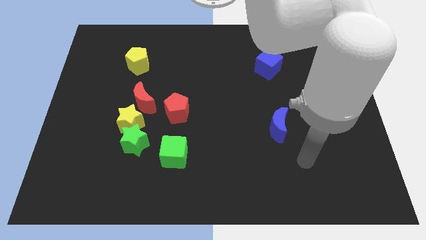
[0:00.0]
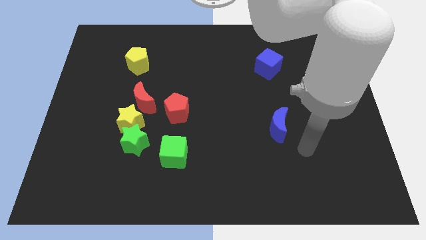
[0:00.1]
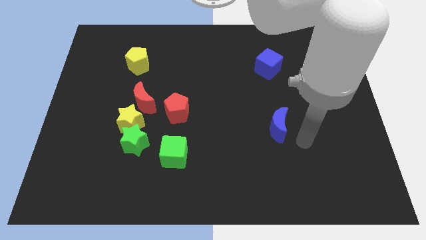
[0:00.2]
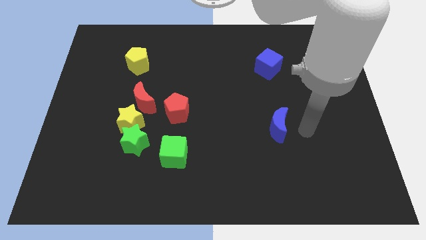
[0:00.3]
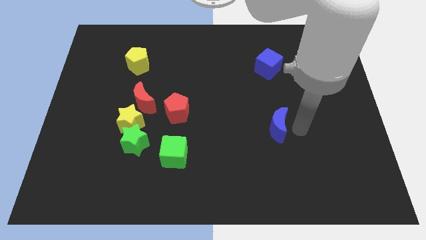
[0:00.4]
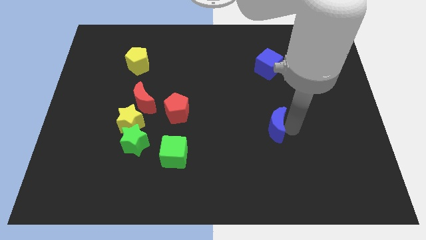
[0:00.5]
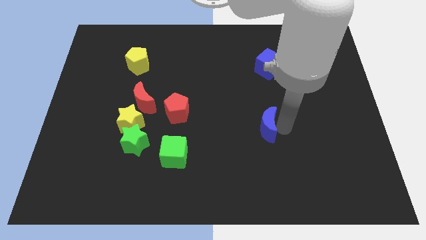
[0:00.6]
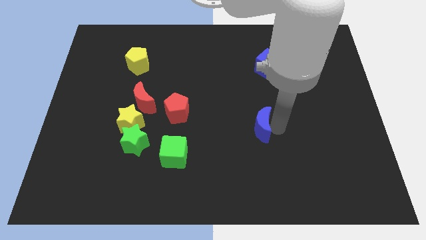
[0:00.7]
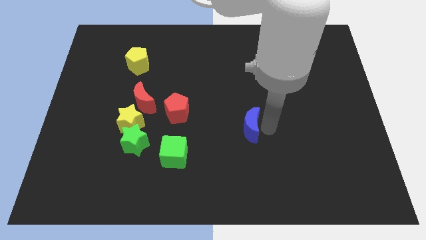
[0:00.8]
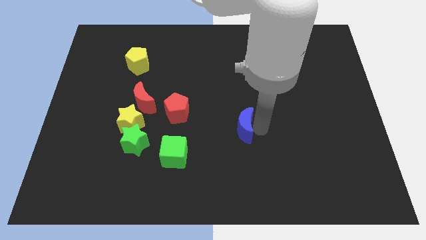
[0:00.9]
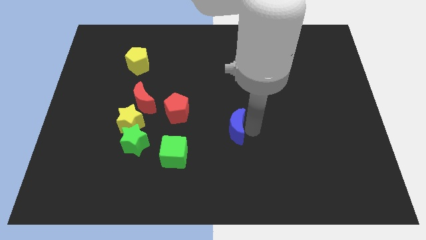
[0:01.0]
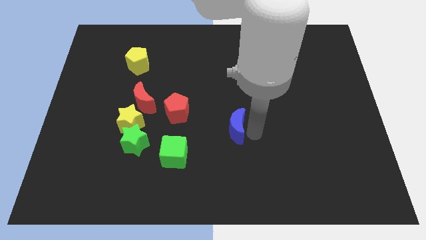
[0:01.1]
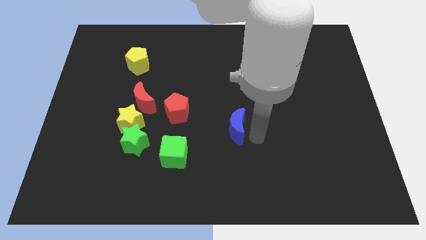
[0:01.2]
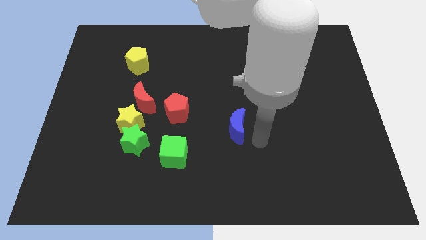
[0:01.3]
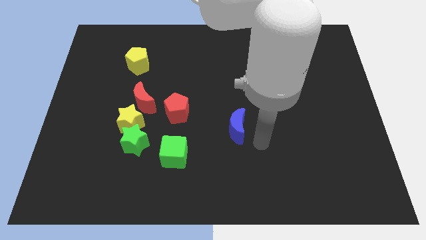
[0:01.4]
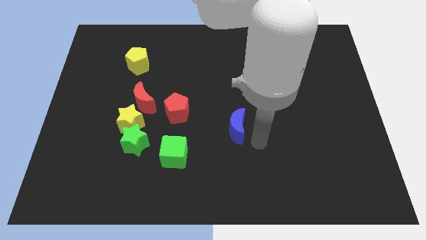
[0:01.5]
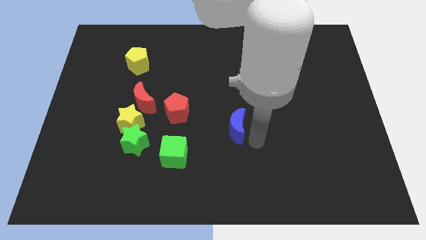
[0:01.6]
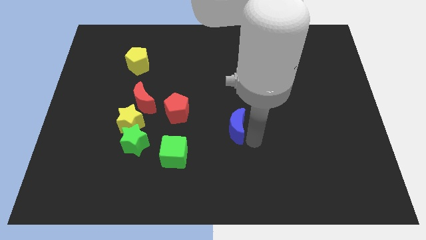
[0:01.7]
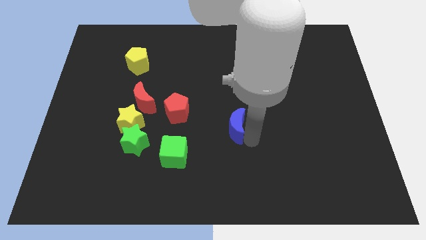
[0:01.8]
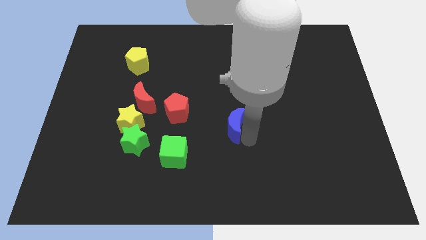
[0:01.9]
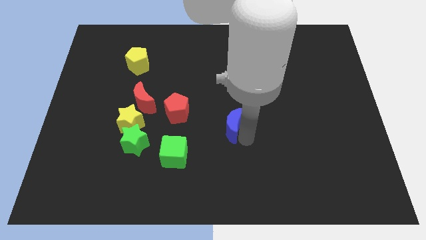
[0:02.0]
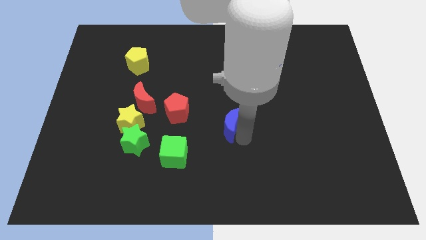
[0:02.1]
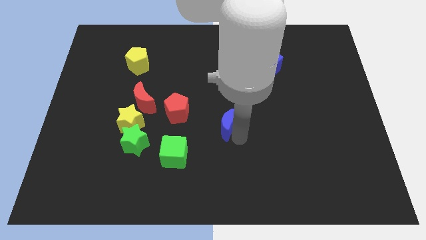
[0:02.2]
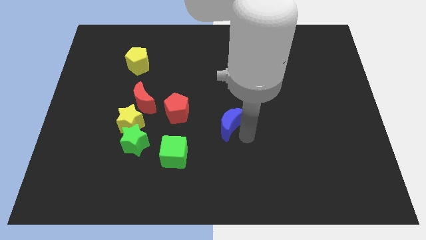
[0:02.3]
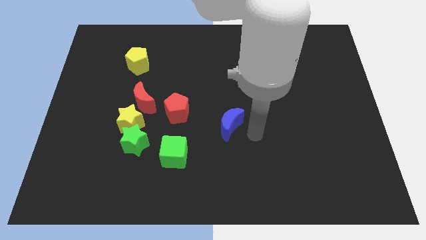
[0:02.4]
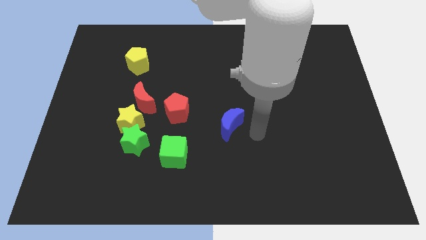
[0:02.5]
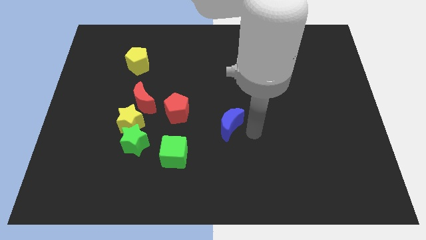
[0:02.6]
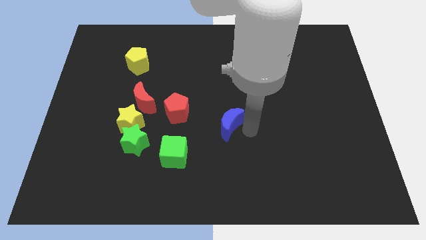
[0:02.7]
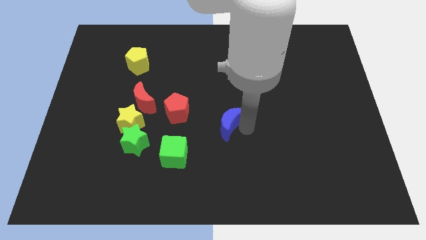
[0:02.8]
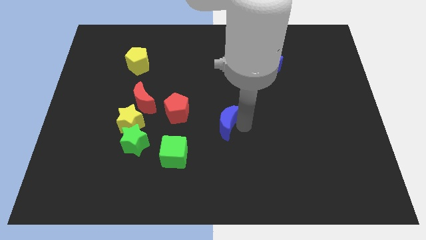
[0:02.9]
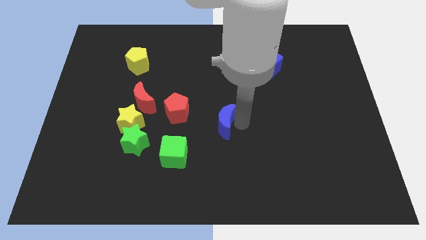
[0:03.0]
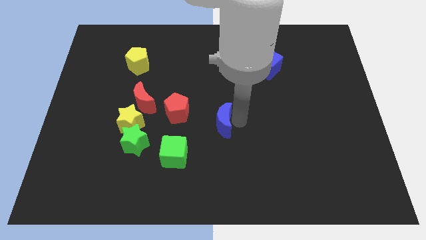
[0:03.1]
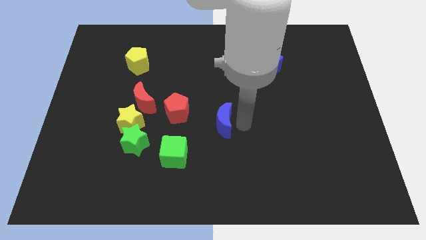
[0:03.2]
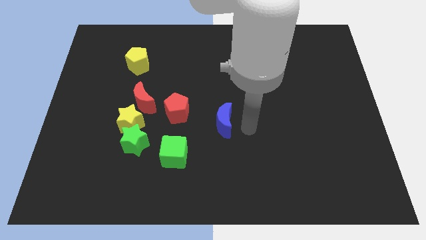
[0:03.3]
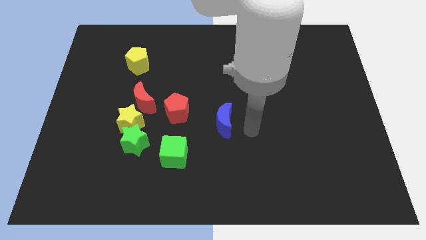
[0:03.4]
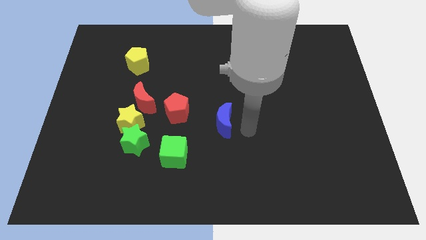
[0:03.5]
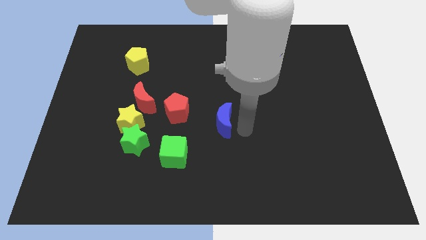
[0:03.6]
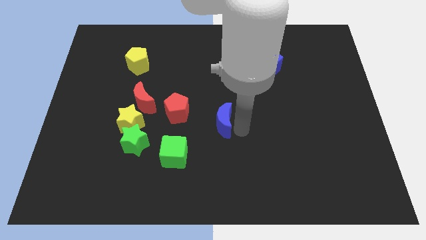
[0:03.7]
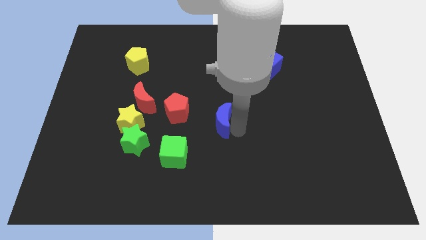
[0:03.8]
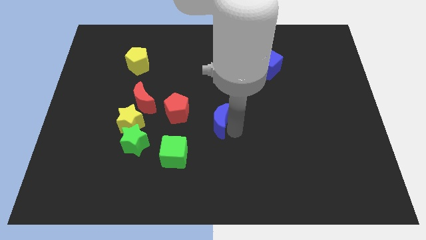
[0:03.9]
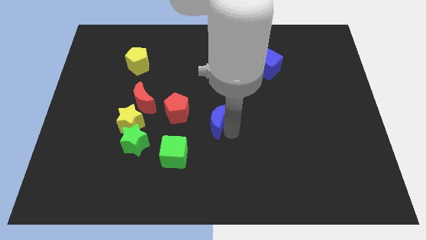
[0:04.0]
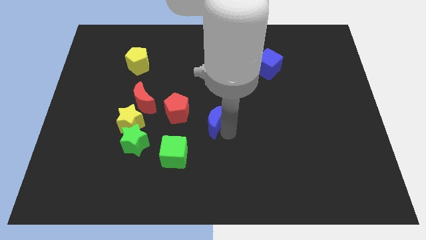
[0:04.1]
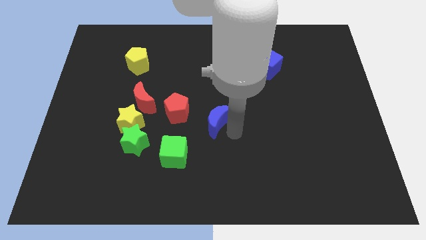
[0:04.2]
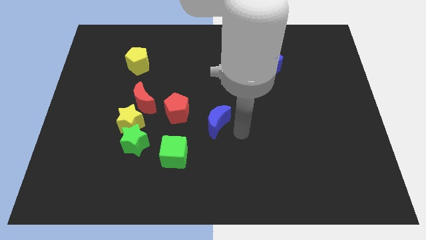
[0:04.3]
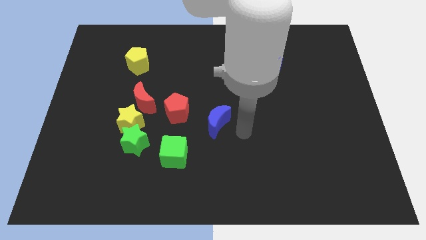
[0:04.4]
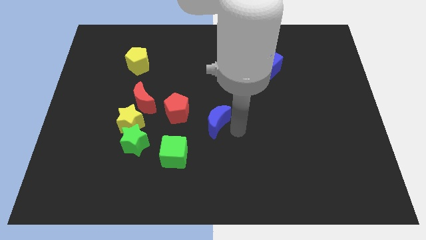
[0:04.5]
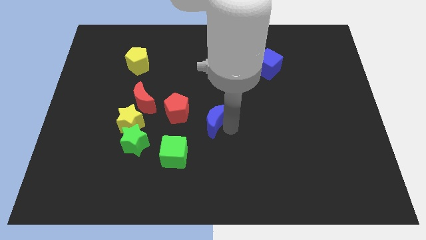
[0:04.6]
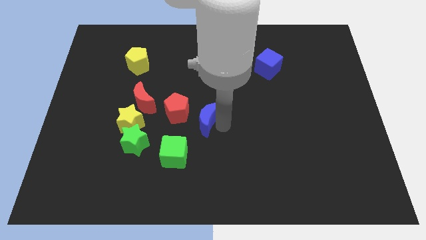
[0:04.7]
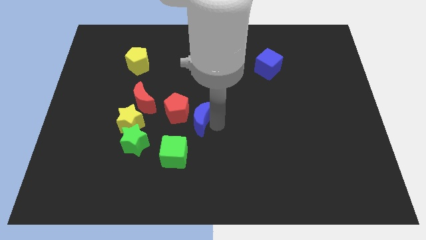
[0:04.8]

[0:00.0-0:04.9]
slide the blue moon to the red pentagon

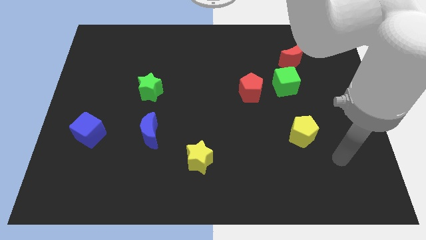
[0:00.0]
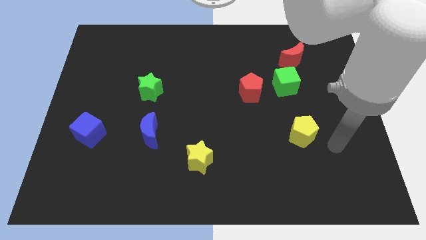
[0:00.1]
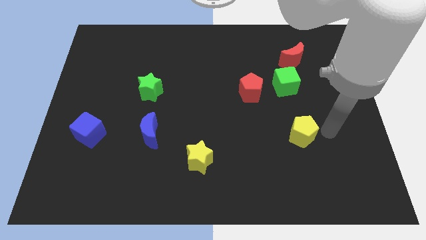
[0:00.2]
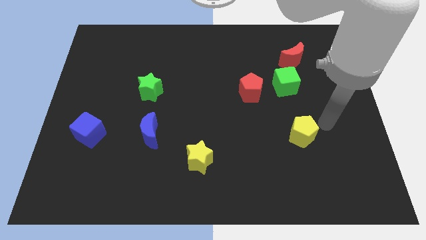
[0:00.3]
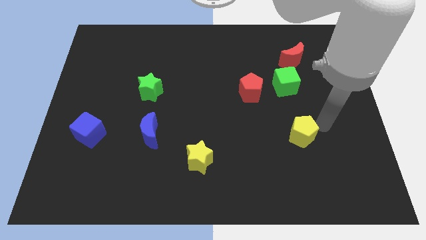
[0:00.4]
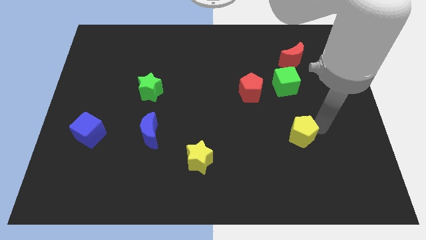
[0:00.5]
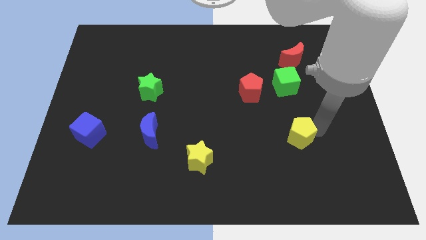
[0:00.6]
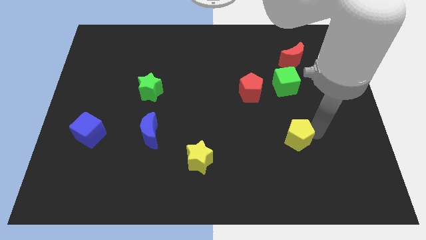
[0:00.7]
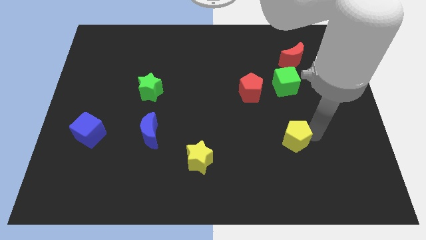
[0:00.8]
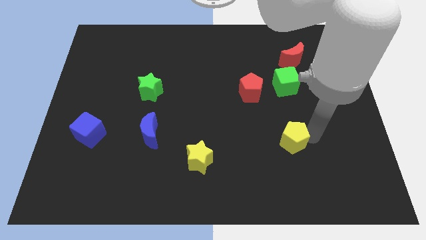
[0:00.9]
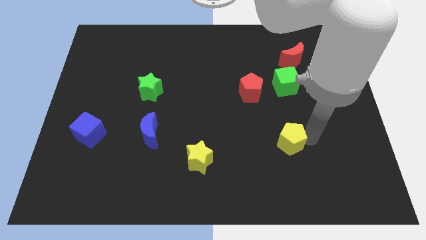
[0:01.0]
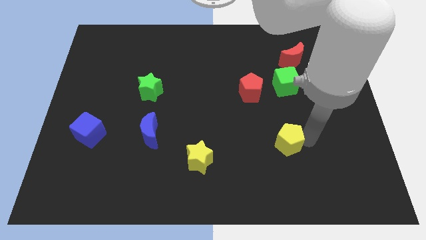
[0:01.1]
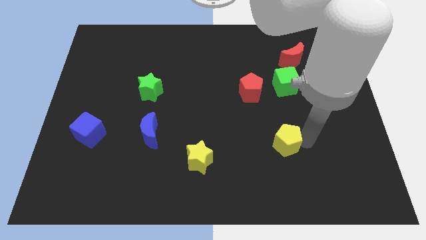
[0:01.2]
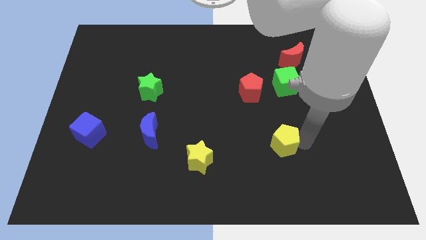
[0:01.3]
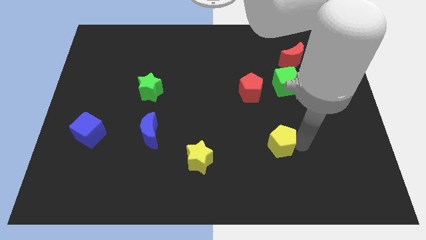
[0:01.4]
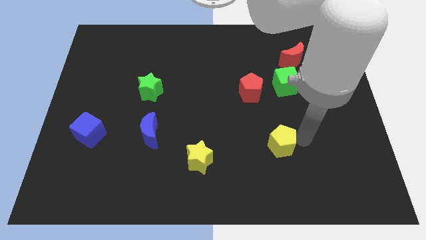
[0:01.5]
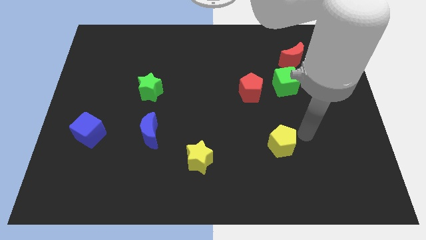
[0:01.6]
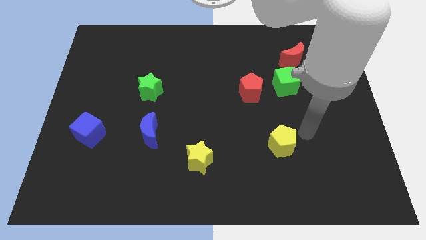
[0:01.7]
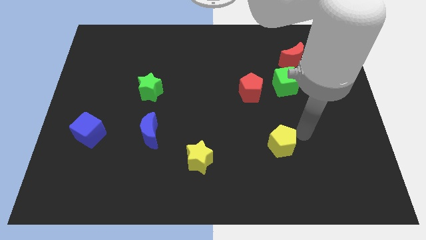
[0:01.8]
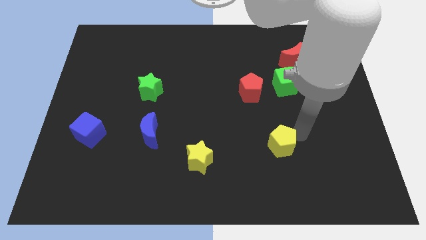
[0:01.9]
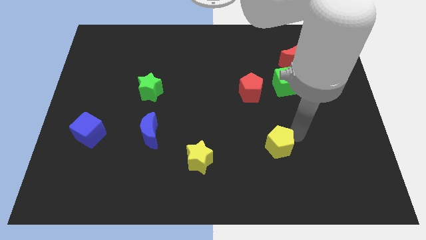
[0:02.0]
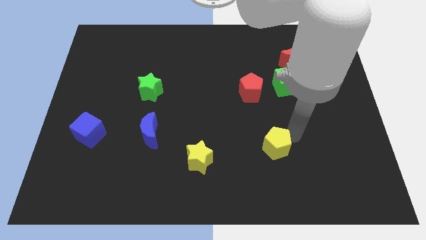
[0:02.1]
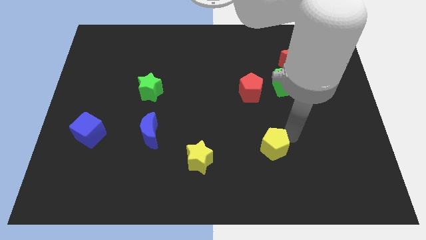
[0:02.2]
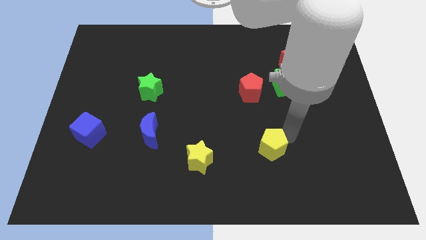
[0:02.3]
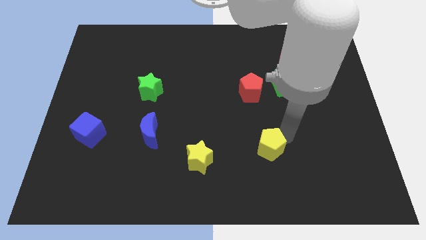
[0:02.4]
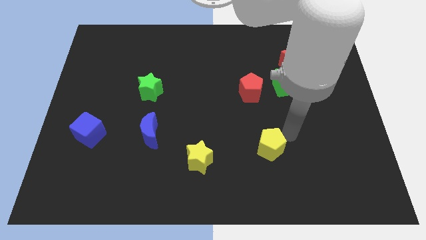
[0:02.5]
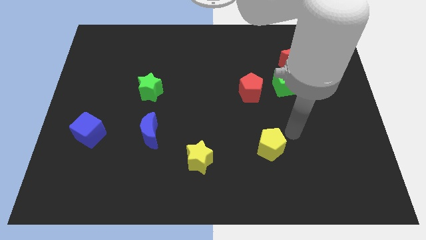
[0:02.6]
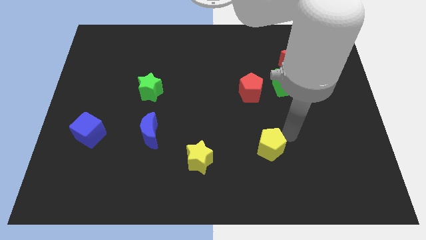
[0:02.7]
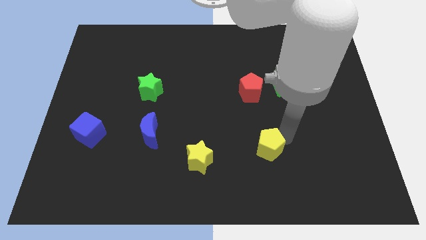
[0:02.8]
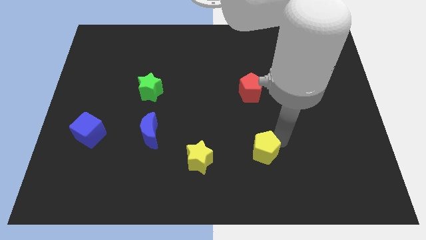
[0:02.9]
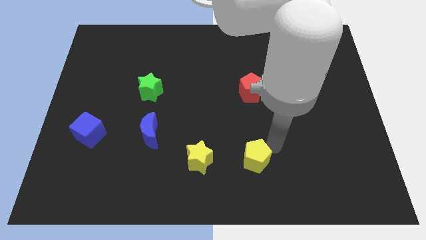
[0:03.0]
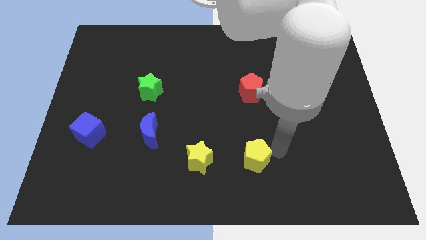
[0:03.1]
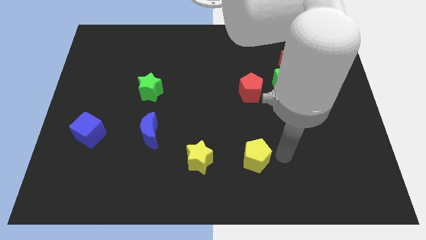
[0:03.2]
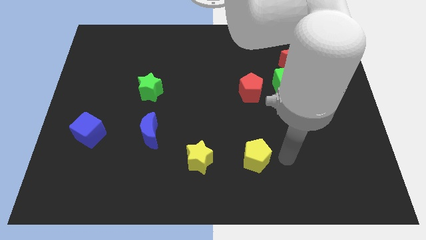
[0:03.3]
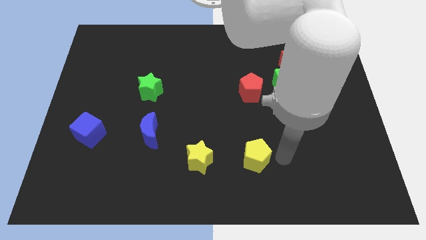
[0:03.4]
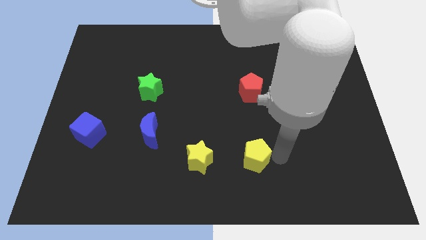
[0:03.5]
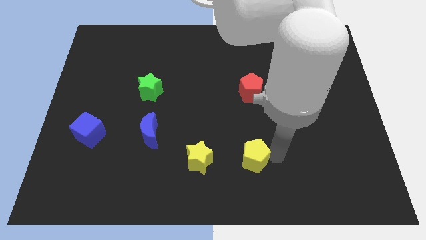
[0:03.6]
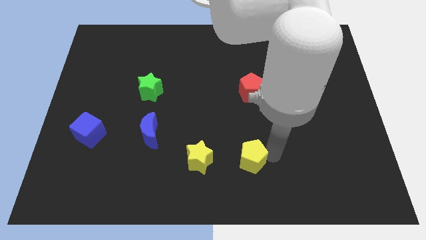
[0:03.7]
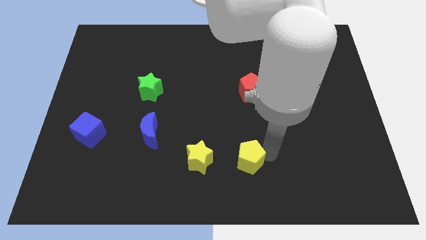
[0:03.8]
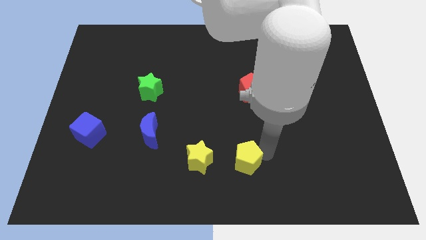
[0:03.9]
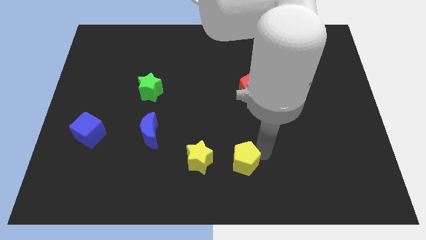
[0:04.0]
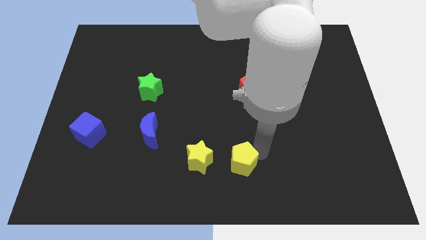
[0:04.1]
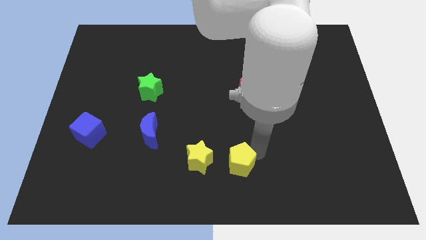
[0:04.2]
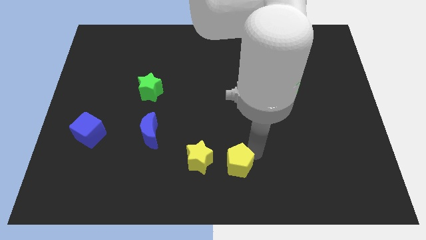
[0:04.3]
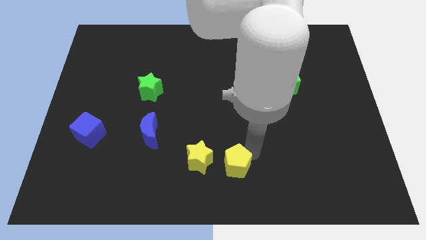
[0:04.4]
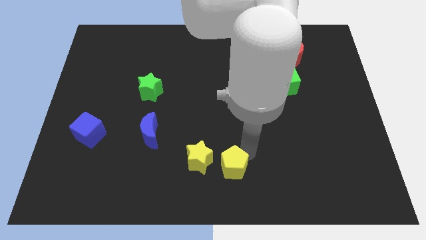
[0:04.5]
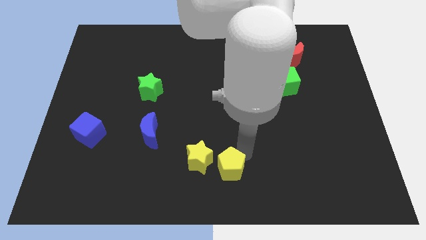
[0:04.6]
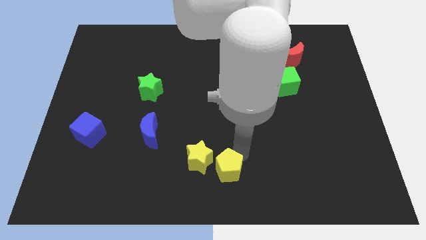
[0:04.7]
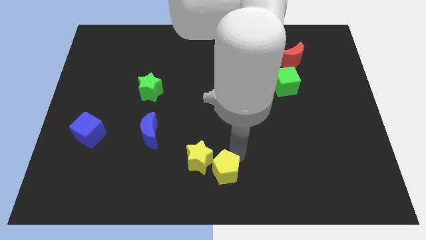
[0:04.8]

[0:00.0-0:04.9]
push the yellow pentagon close to the yellow star
